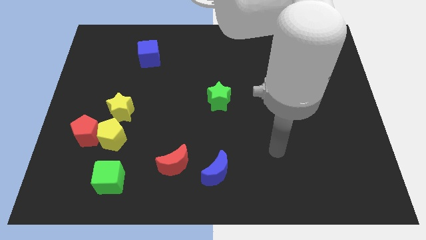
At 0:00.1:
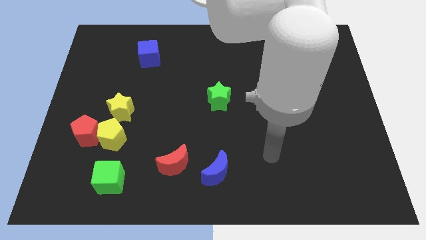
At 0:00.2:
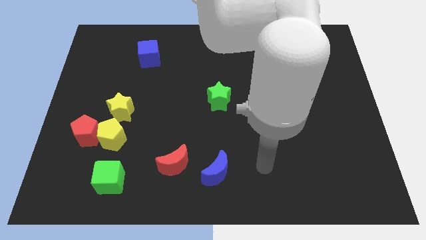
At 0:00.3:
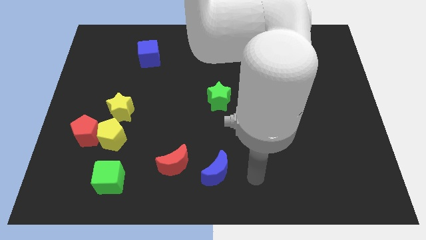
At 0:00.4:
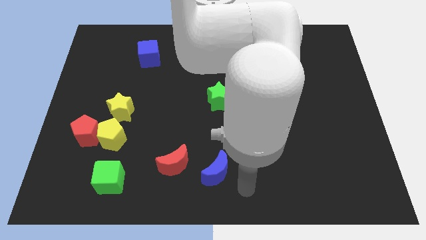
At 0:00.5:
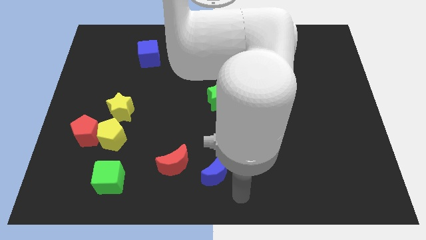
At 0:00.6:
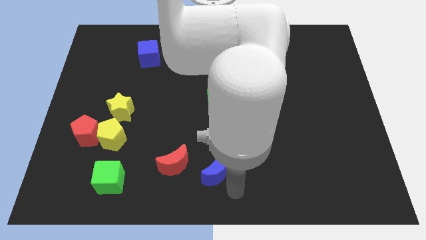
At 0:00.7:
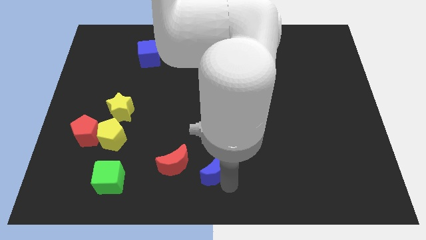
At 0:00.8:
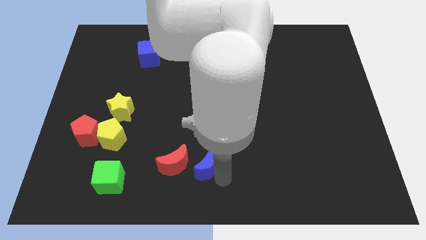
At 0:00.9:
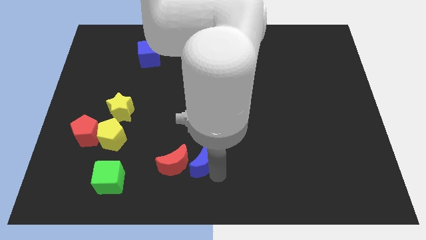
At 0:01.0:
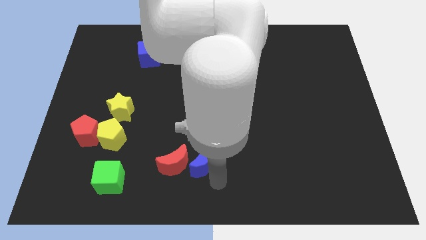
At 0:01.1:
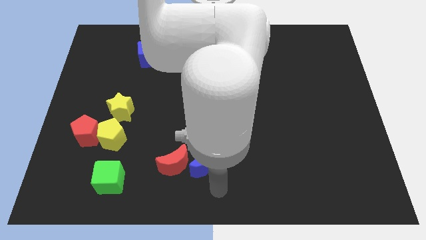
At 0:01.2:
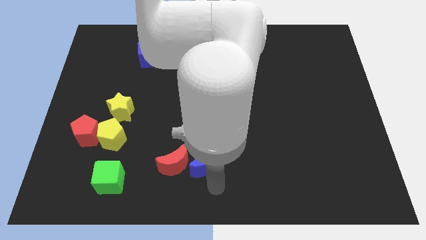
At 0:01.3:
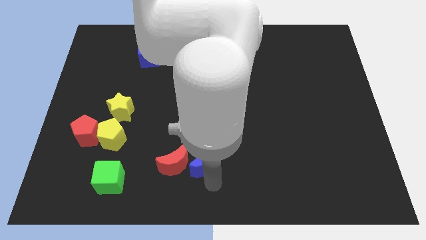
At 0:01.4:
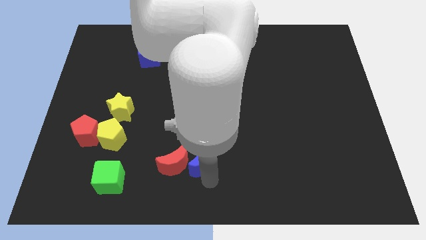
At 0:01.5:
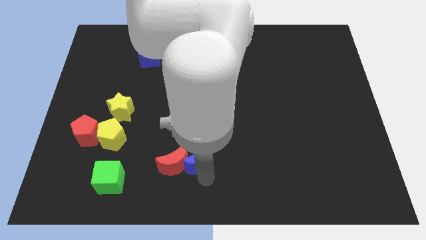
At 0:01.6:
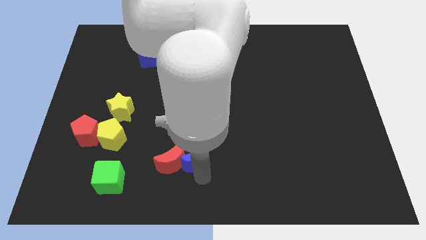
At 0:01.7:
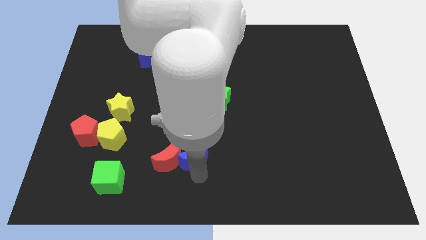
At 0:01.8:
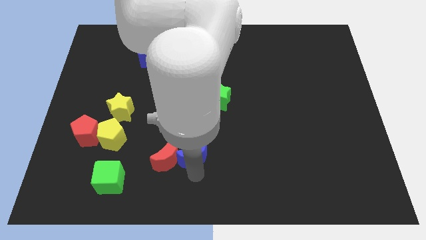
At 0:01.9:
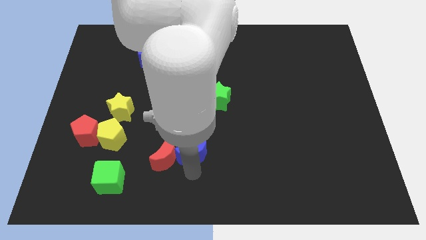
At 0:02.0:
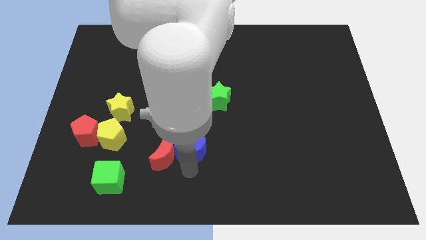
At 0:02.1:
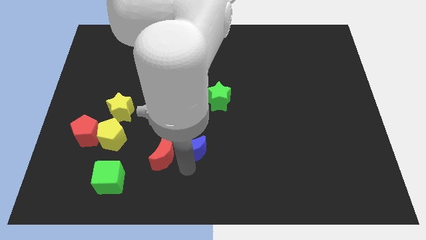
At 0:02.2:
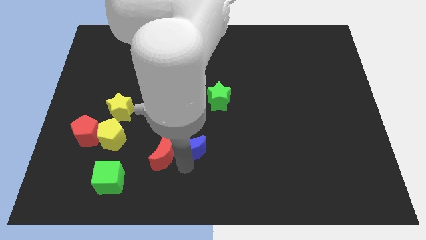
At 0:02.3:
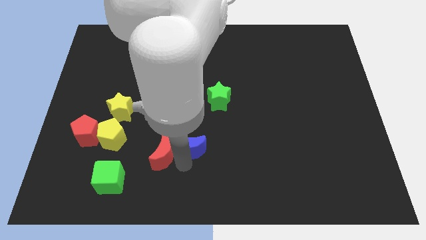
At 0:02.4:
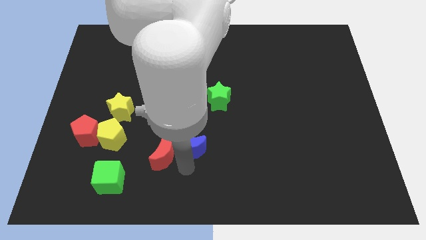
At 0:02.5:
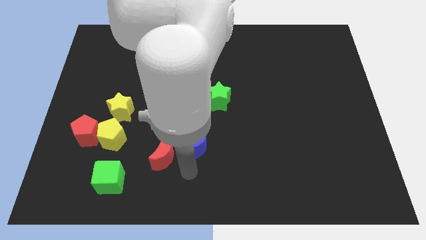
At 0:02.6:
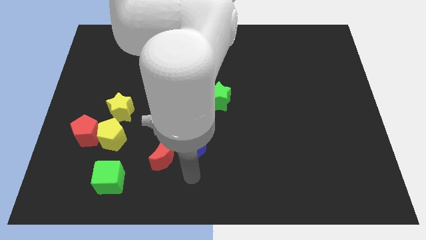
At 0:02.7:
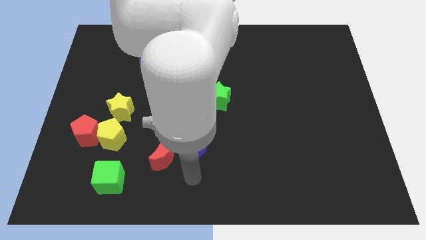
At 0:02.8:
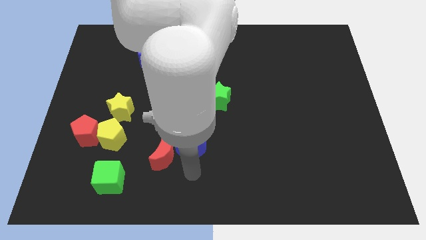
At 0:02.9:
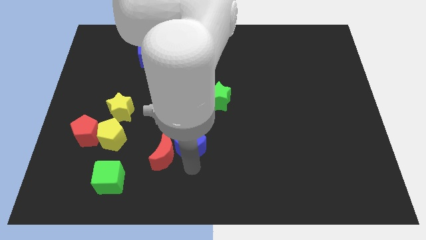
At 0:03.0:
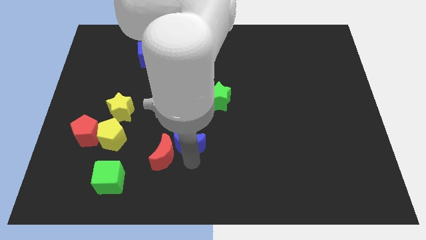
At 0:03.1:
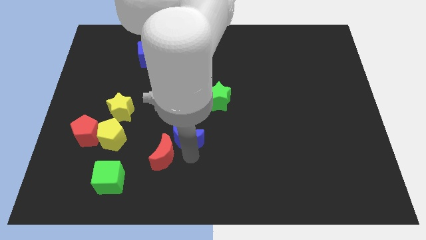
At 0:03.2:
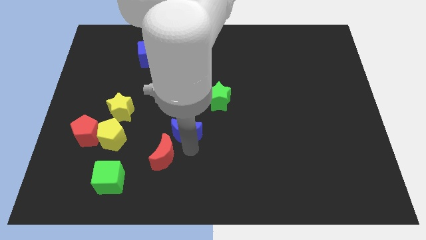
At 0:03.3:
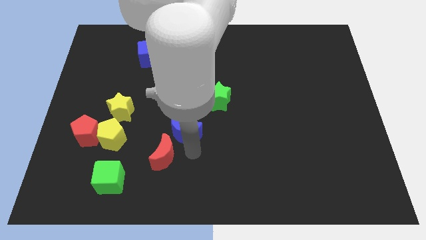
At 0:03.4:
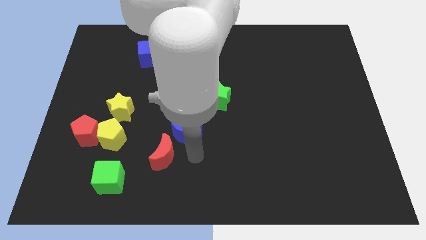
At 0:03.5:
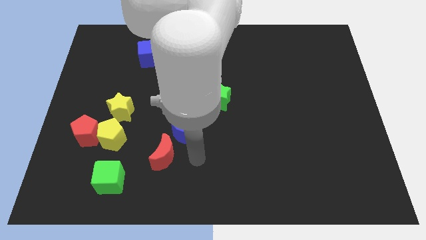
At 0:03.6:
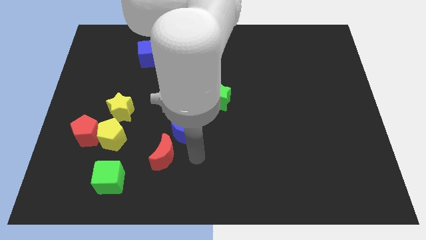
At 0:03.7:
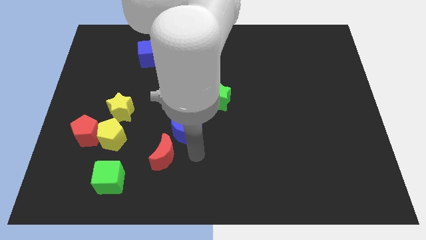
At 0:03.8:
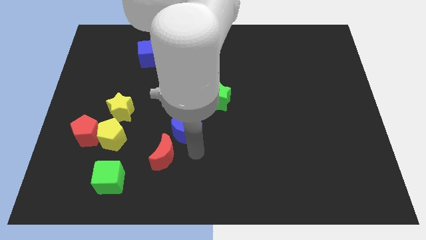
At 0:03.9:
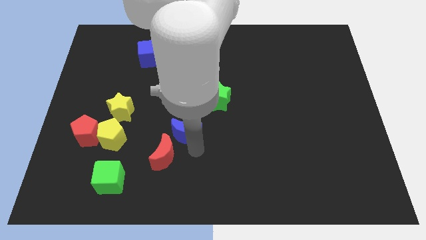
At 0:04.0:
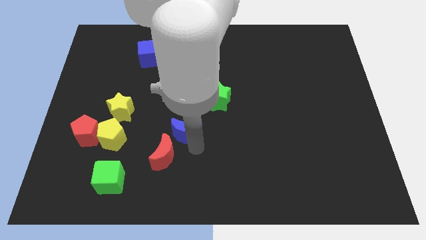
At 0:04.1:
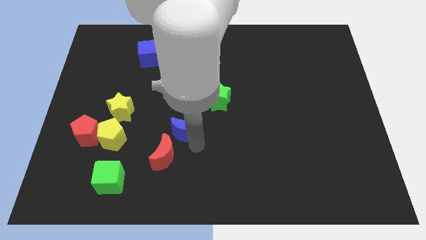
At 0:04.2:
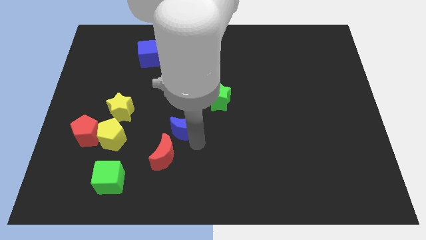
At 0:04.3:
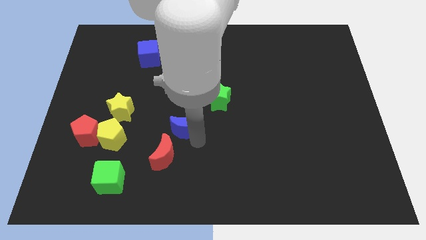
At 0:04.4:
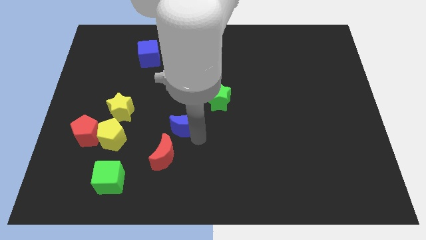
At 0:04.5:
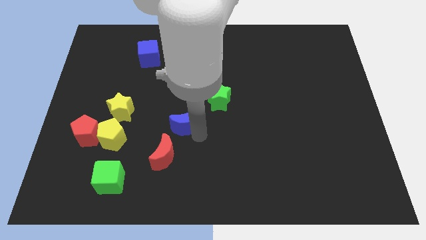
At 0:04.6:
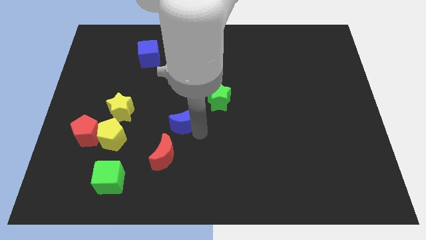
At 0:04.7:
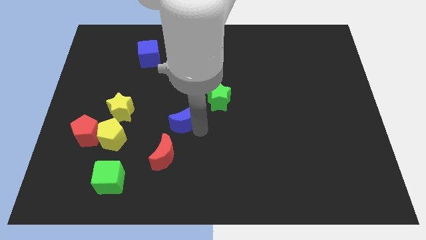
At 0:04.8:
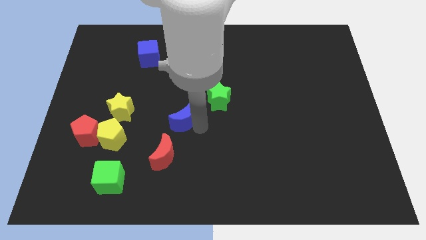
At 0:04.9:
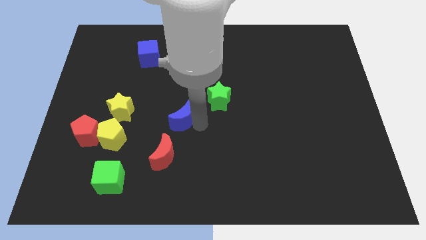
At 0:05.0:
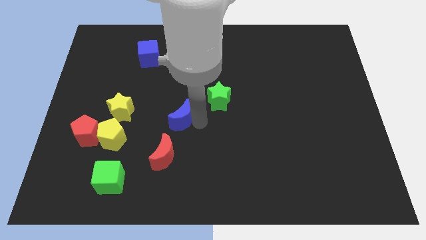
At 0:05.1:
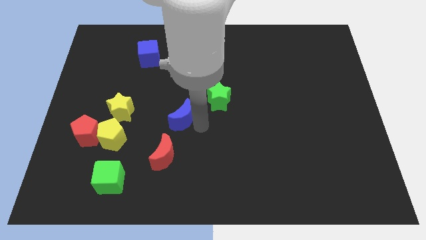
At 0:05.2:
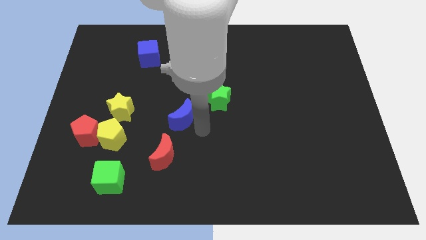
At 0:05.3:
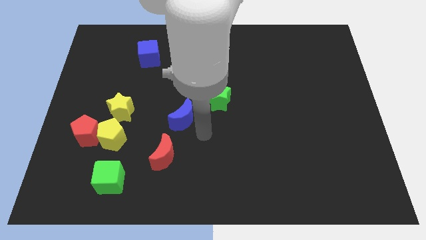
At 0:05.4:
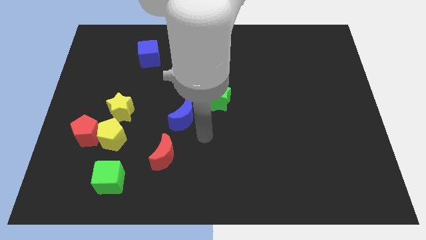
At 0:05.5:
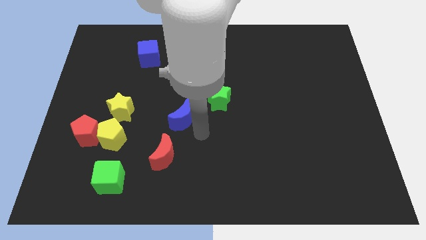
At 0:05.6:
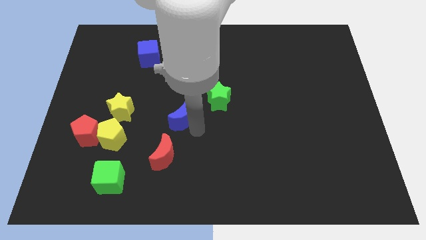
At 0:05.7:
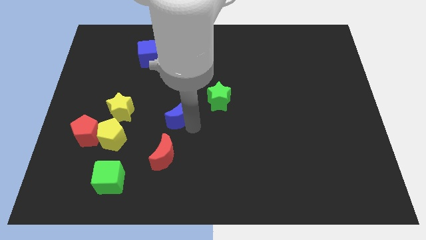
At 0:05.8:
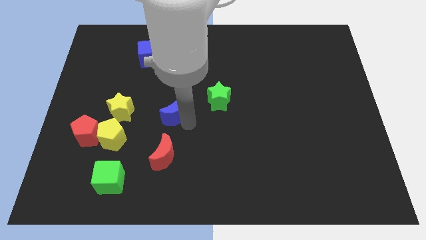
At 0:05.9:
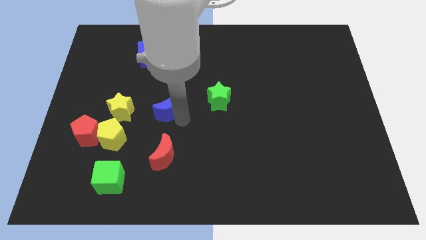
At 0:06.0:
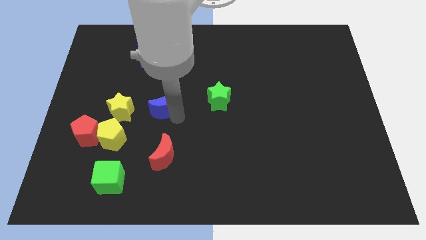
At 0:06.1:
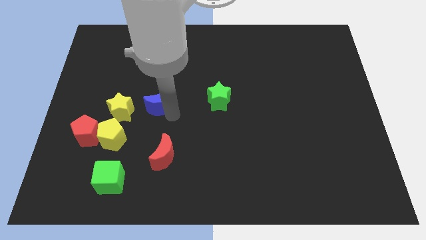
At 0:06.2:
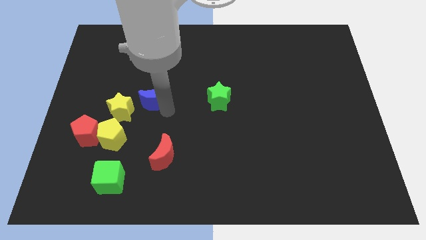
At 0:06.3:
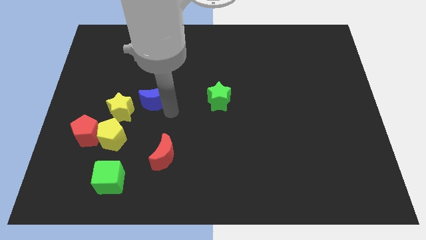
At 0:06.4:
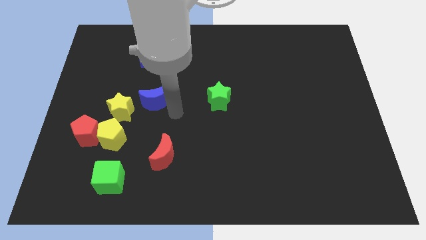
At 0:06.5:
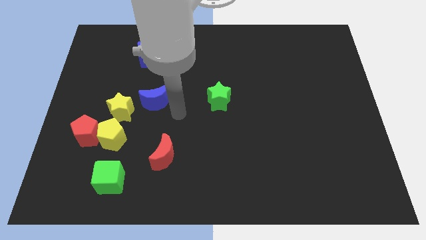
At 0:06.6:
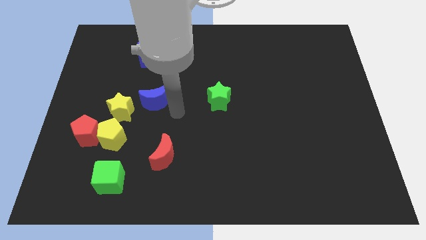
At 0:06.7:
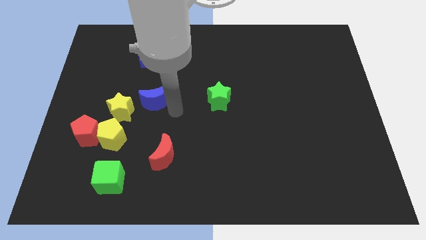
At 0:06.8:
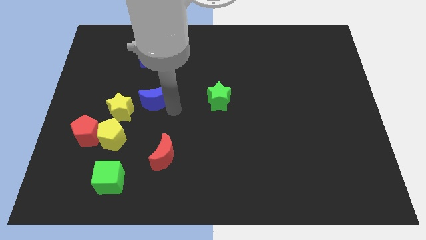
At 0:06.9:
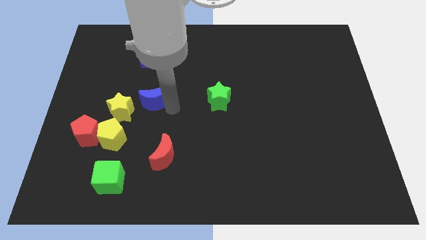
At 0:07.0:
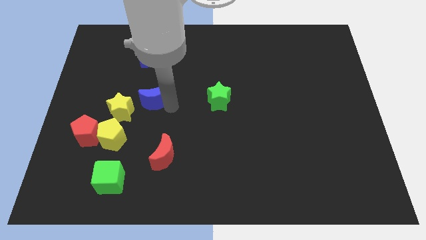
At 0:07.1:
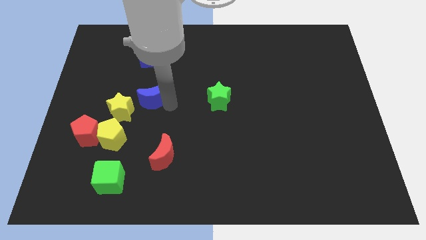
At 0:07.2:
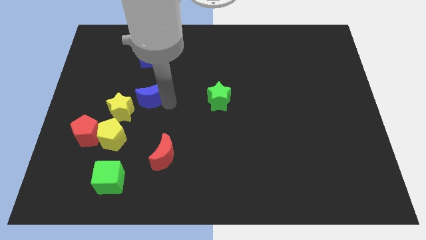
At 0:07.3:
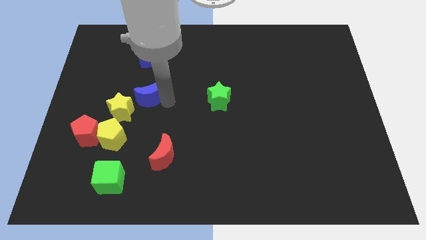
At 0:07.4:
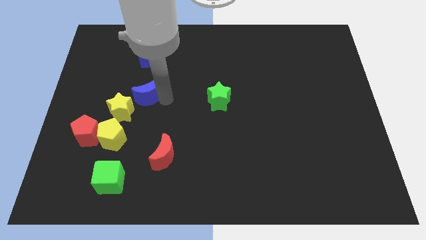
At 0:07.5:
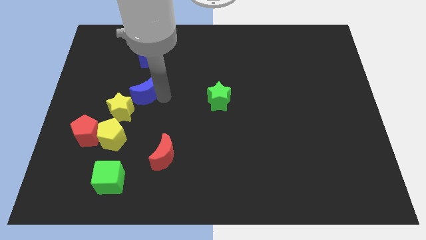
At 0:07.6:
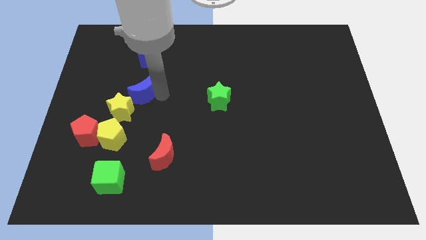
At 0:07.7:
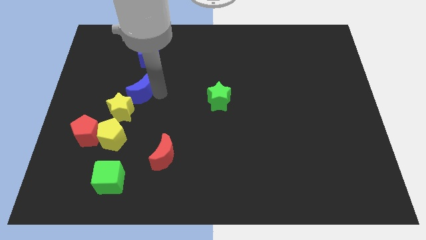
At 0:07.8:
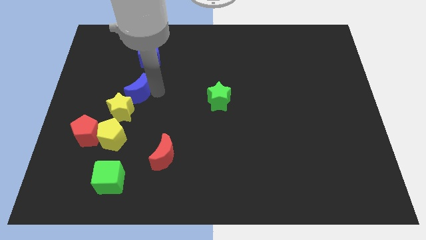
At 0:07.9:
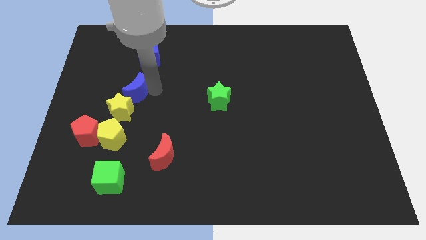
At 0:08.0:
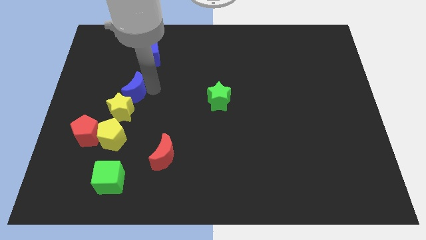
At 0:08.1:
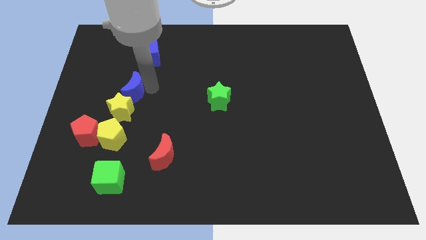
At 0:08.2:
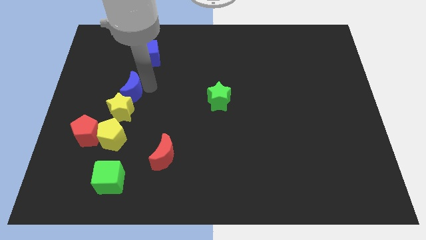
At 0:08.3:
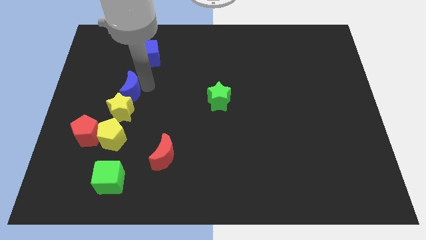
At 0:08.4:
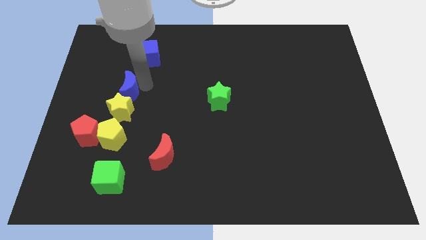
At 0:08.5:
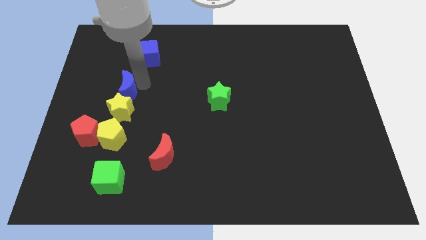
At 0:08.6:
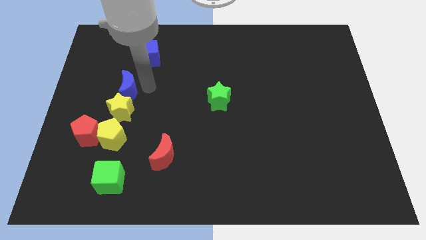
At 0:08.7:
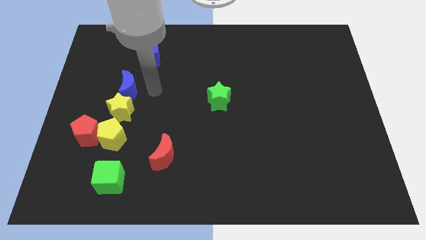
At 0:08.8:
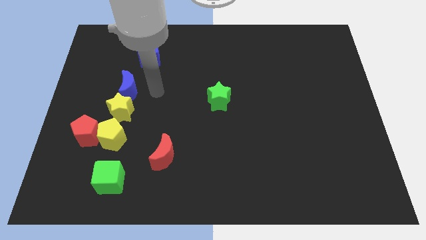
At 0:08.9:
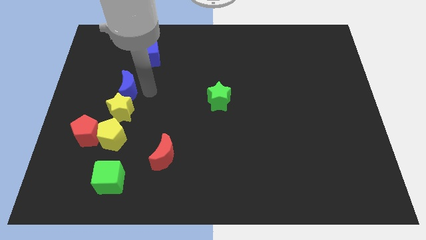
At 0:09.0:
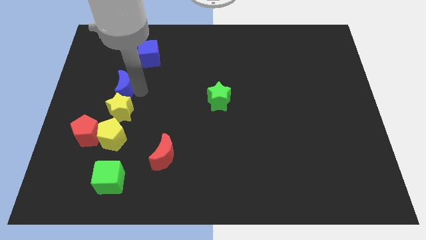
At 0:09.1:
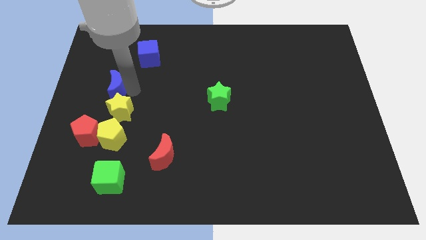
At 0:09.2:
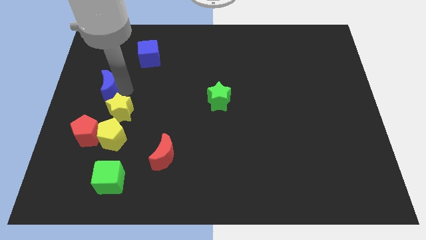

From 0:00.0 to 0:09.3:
slide the blue moon to the left side
